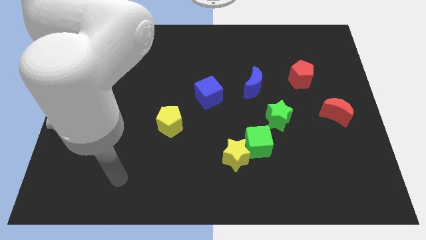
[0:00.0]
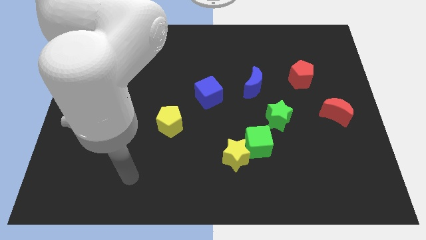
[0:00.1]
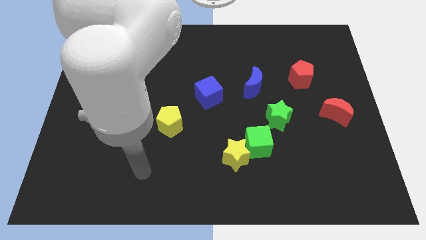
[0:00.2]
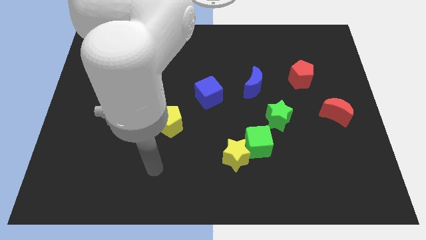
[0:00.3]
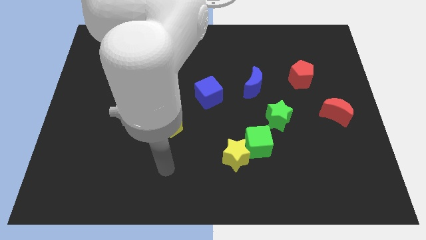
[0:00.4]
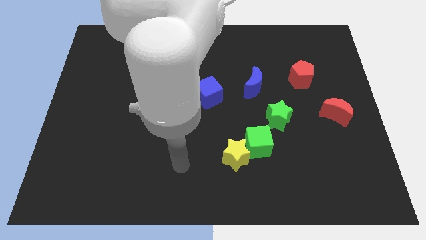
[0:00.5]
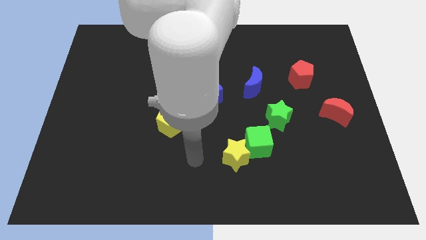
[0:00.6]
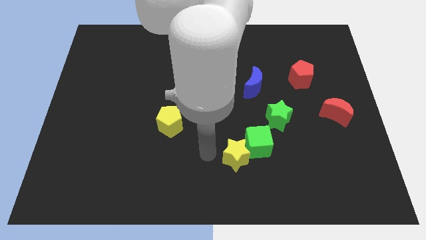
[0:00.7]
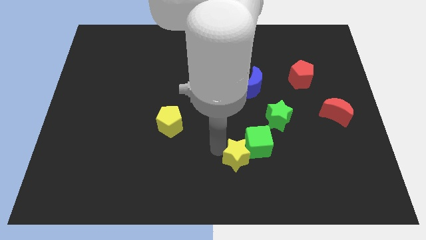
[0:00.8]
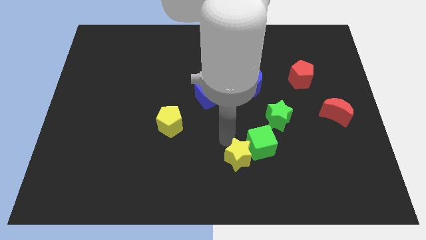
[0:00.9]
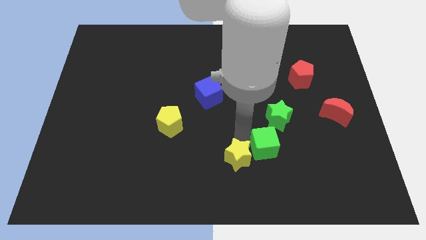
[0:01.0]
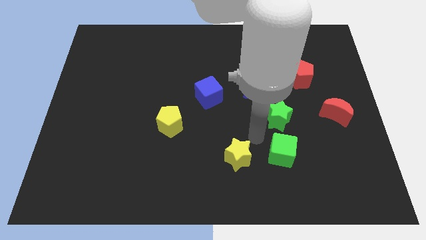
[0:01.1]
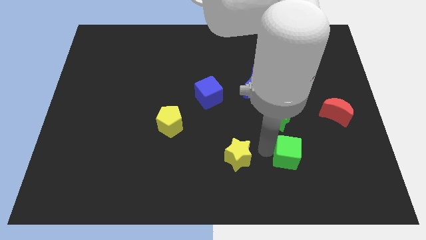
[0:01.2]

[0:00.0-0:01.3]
move the yellow star away from the green cube

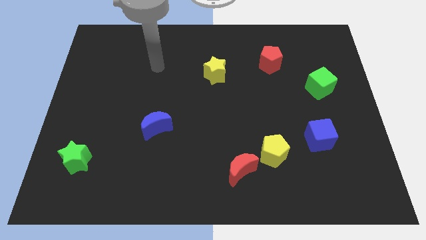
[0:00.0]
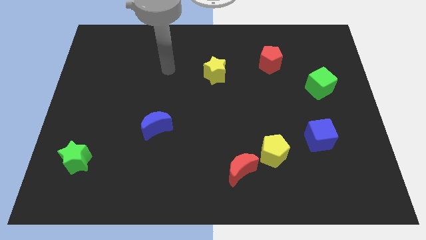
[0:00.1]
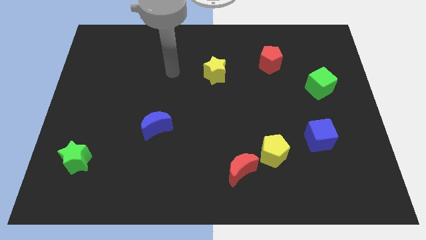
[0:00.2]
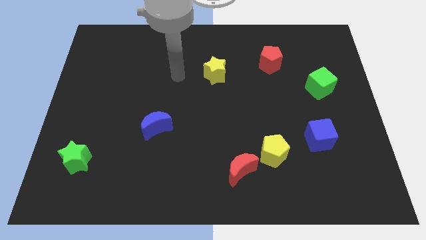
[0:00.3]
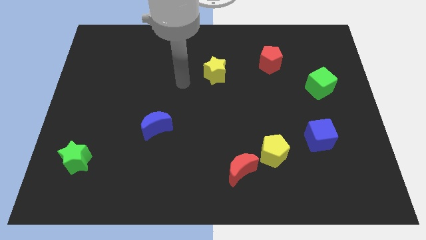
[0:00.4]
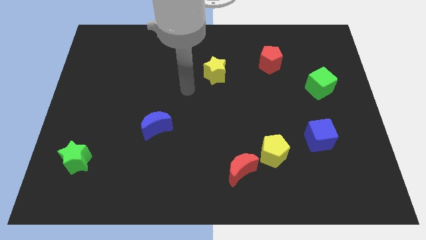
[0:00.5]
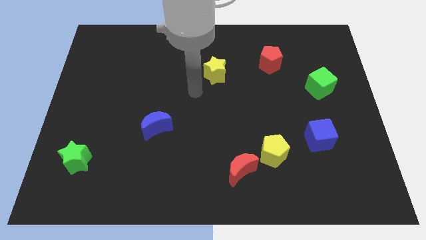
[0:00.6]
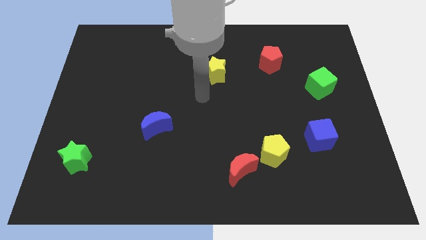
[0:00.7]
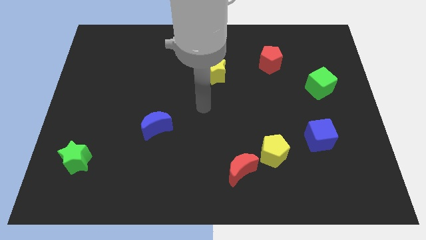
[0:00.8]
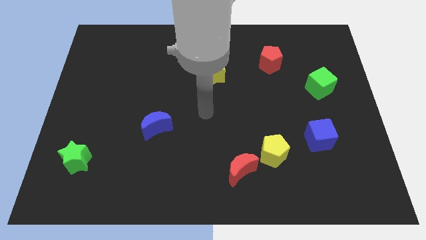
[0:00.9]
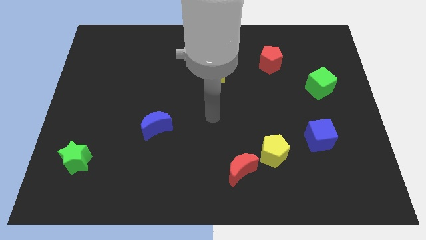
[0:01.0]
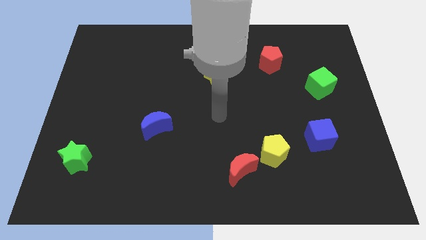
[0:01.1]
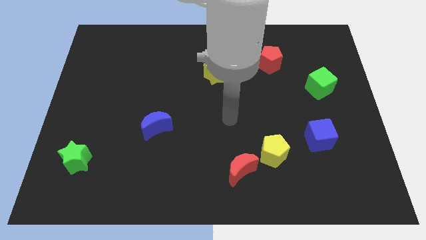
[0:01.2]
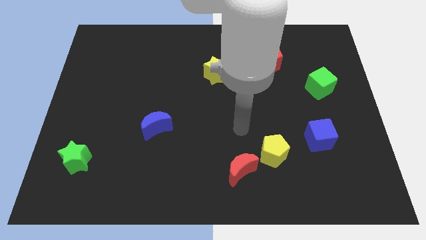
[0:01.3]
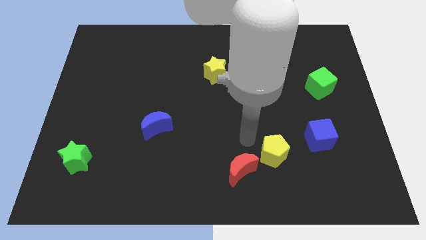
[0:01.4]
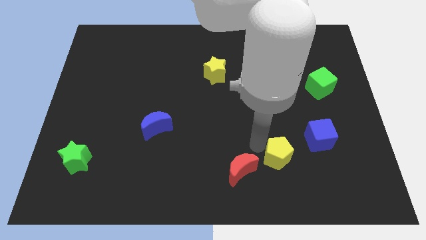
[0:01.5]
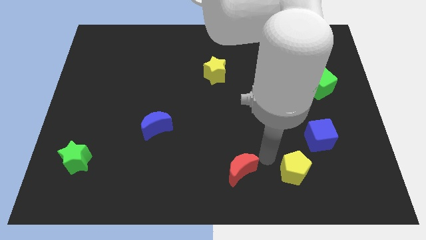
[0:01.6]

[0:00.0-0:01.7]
pull the red moon apart from the yellow pentagon

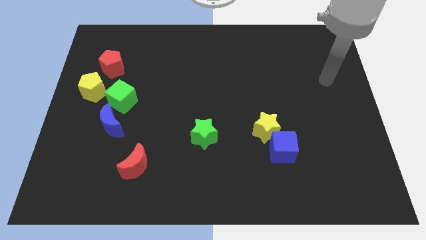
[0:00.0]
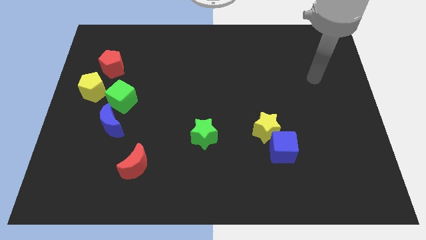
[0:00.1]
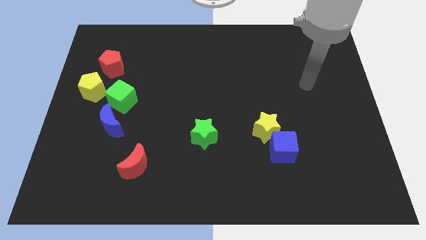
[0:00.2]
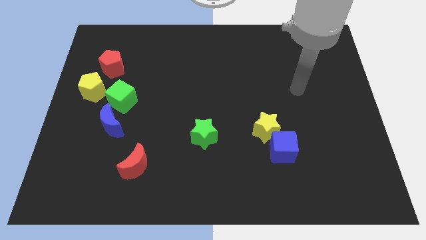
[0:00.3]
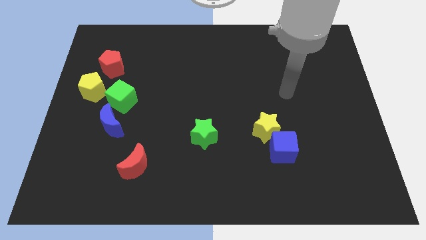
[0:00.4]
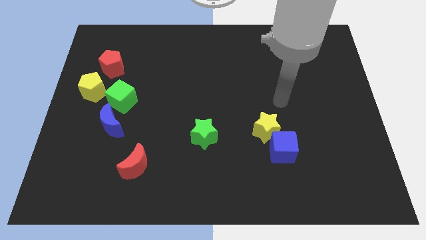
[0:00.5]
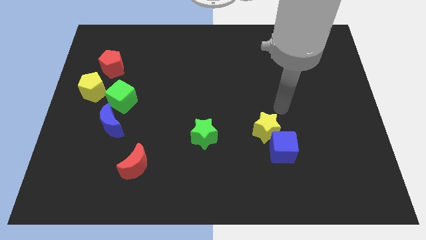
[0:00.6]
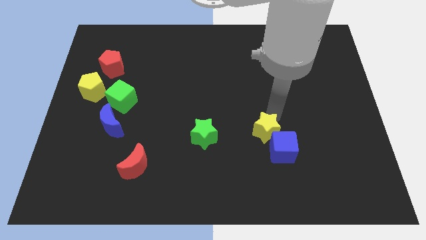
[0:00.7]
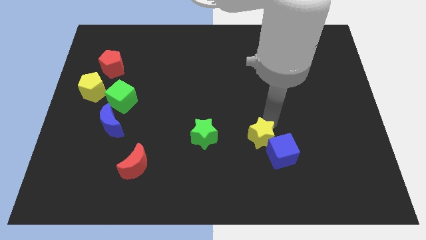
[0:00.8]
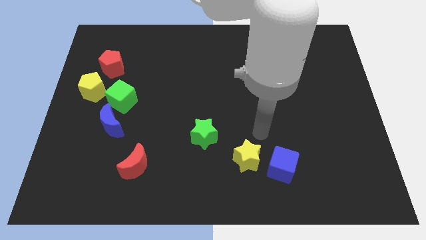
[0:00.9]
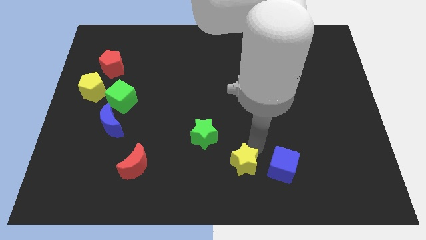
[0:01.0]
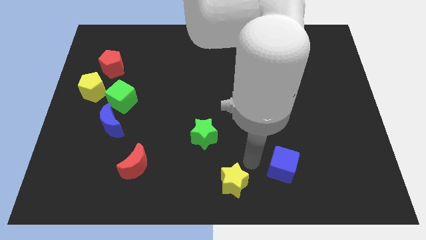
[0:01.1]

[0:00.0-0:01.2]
move the blue cube away from the yellow star

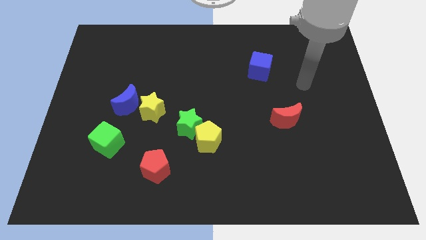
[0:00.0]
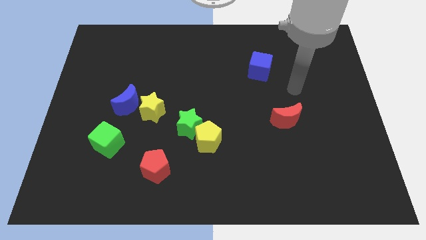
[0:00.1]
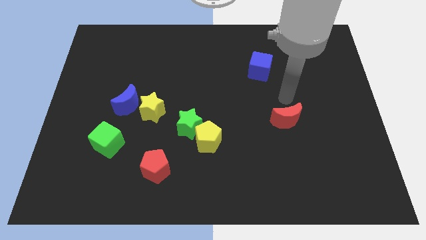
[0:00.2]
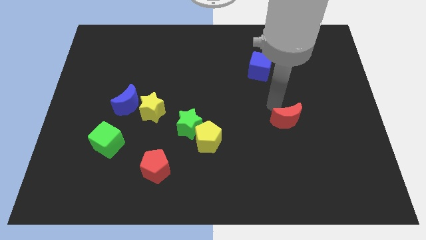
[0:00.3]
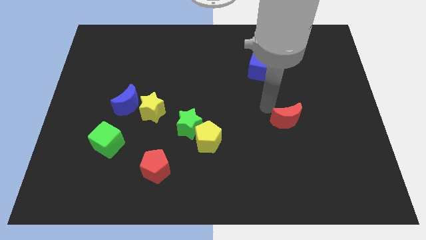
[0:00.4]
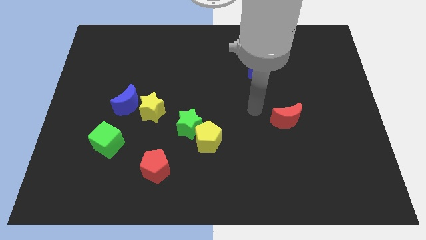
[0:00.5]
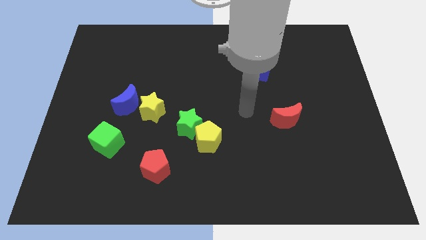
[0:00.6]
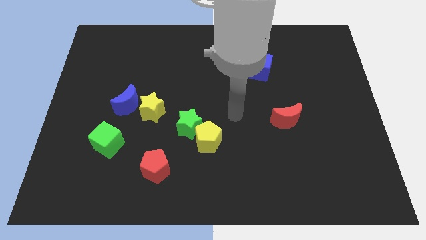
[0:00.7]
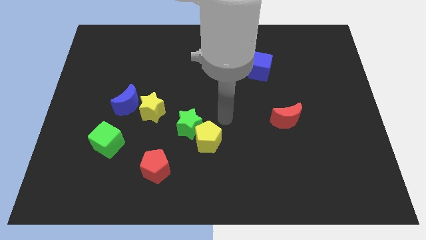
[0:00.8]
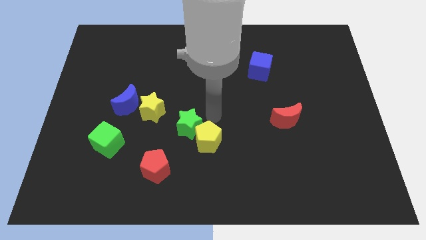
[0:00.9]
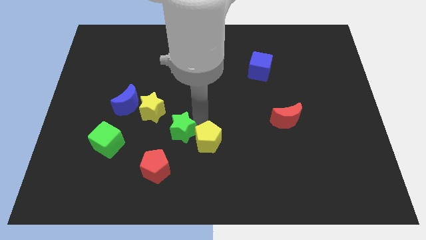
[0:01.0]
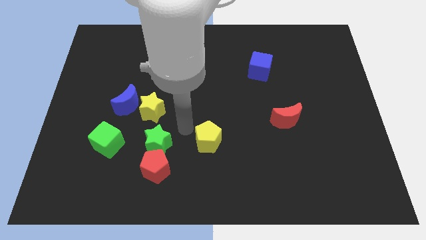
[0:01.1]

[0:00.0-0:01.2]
pull the yellow pentagon apart from the green star

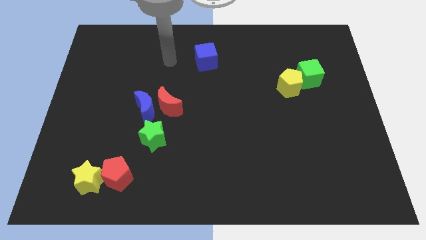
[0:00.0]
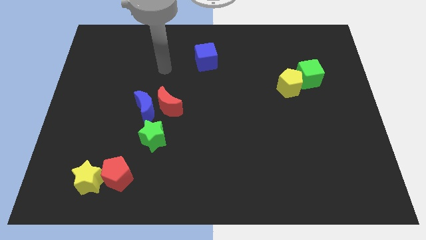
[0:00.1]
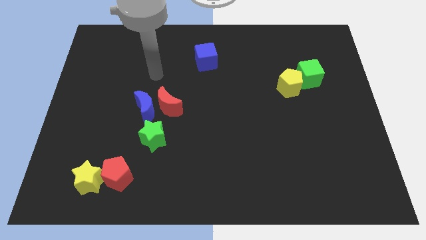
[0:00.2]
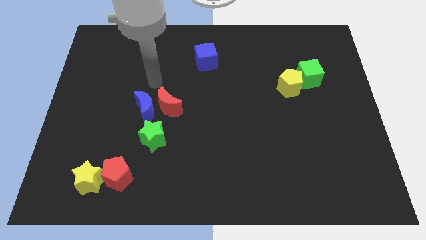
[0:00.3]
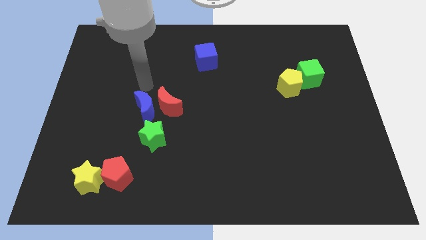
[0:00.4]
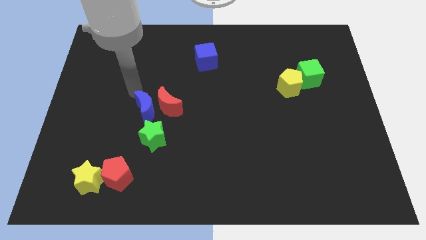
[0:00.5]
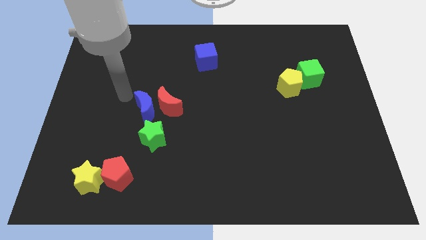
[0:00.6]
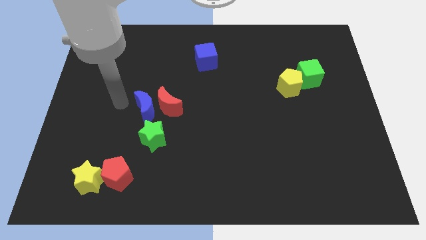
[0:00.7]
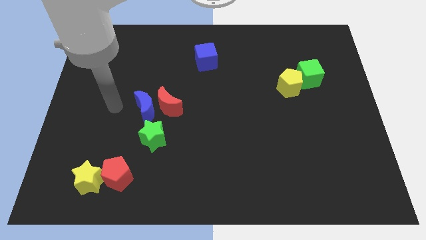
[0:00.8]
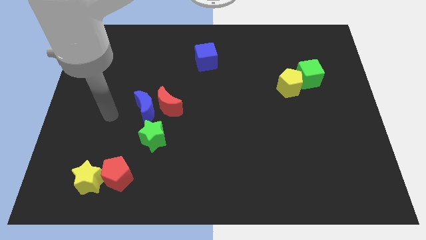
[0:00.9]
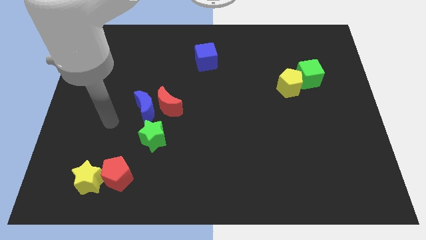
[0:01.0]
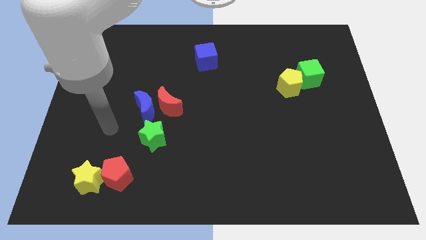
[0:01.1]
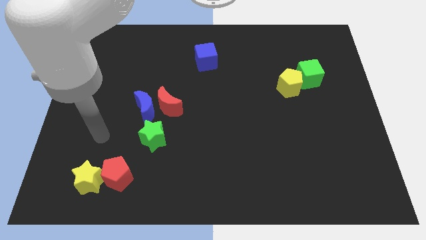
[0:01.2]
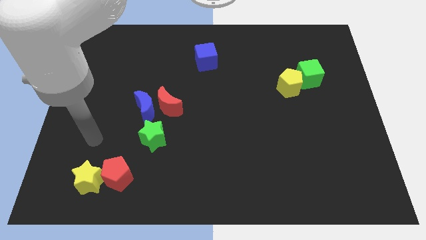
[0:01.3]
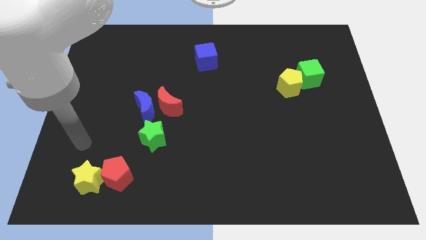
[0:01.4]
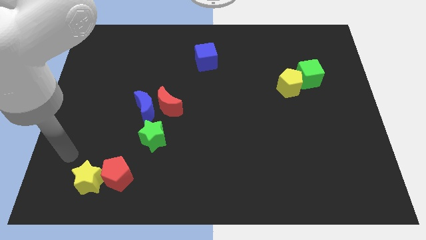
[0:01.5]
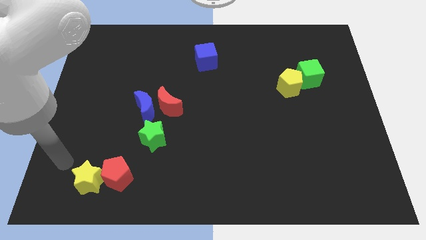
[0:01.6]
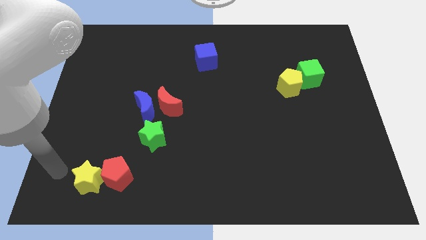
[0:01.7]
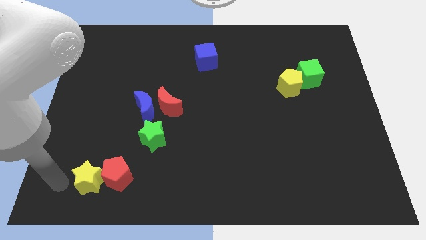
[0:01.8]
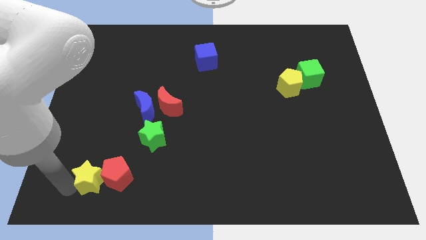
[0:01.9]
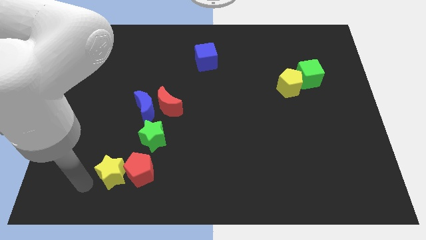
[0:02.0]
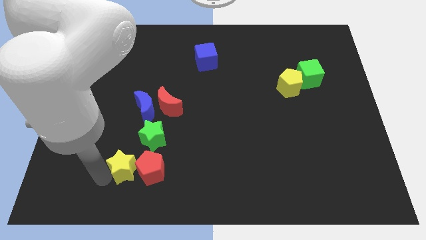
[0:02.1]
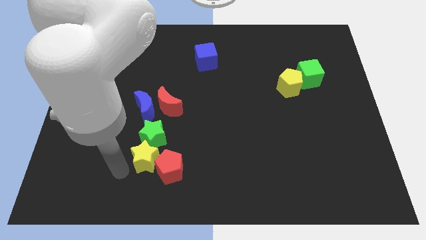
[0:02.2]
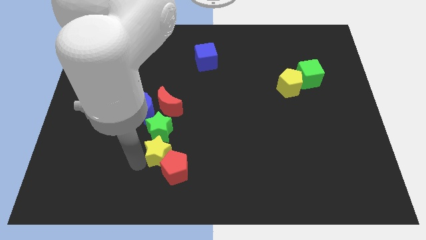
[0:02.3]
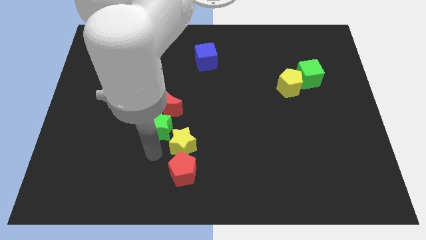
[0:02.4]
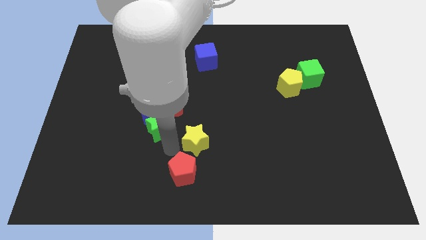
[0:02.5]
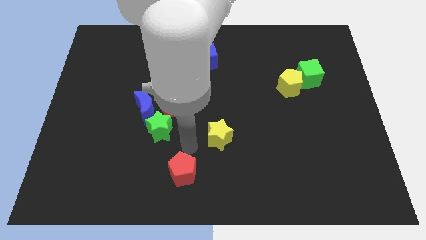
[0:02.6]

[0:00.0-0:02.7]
separate the red pentagon from the yellow star

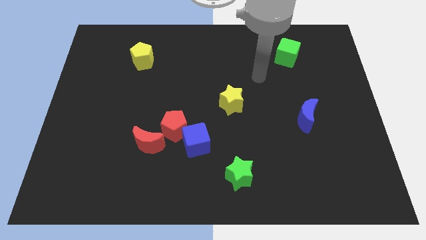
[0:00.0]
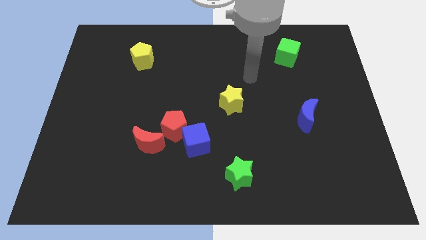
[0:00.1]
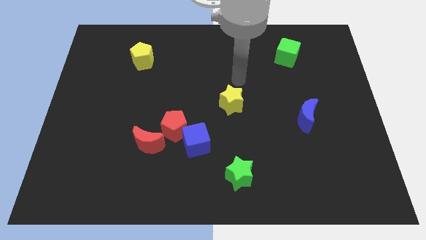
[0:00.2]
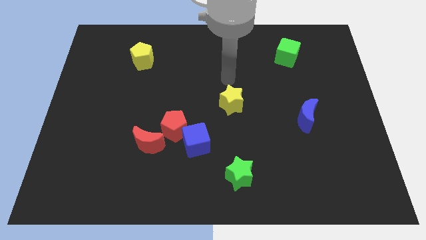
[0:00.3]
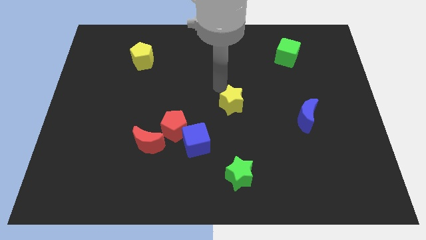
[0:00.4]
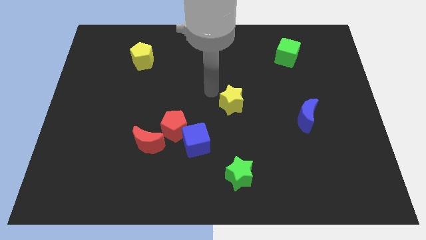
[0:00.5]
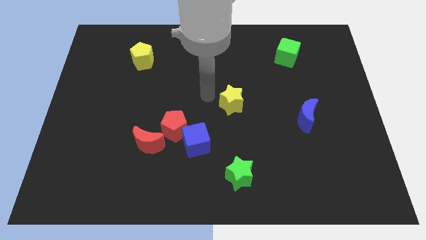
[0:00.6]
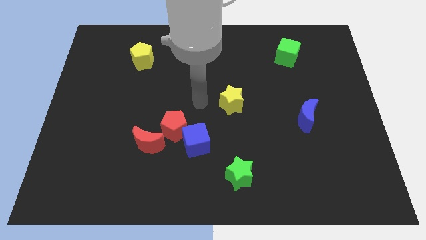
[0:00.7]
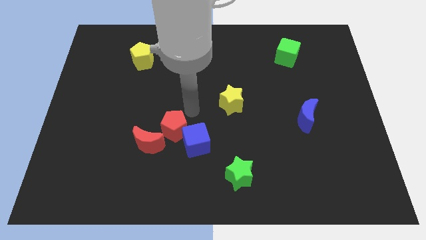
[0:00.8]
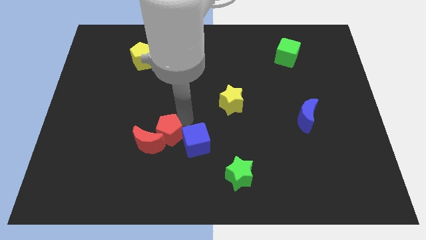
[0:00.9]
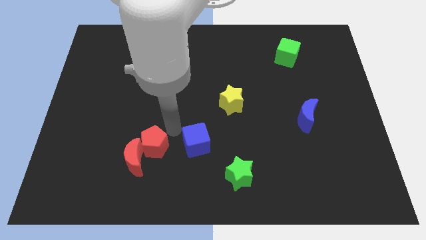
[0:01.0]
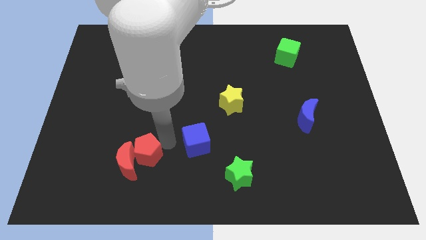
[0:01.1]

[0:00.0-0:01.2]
pull the blue cube apart from the red pentagon

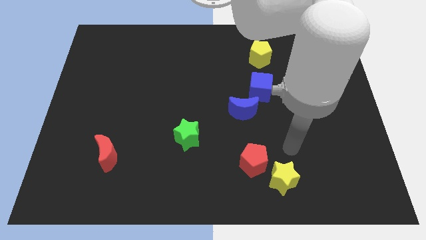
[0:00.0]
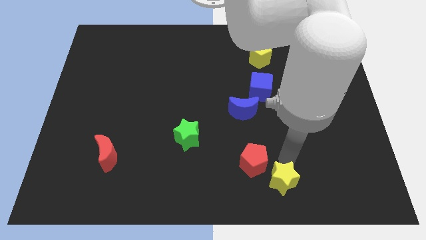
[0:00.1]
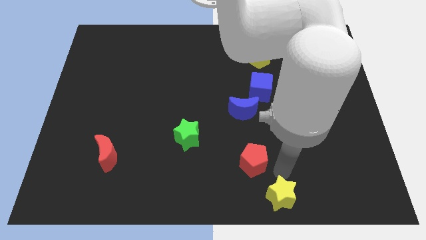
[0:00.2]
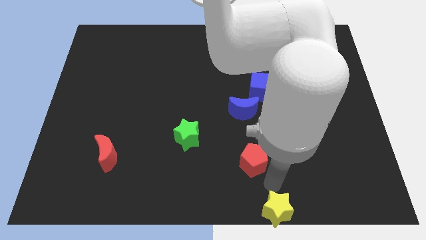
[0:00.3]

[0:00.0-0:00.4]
pull the red pentagon apart from the yellow star
